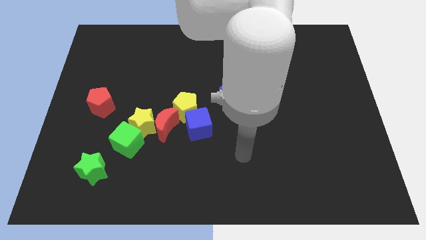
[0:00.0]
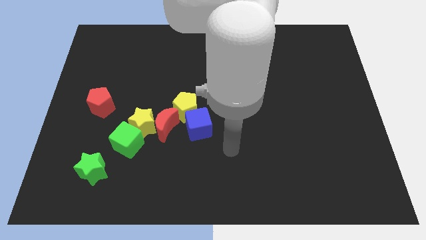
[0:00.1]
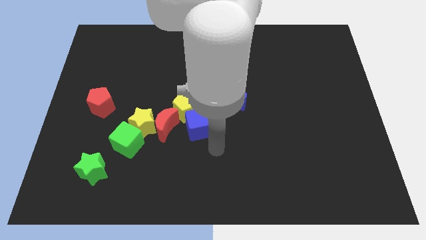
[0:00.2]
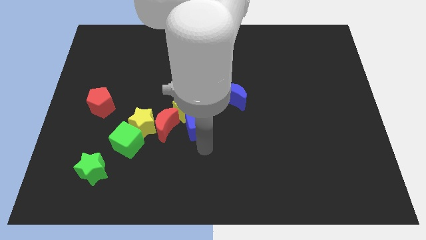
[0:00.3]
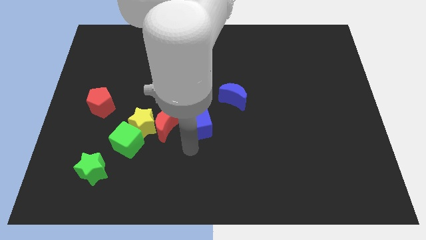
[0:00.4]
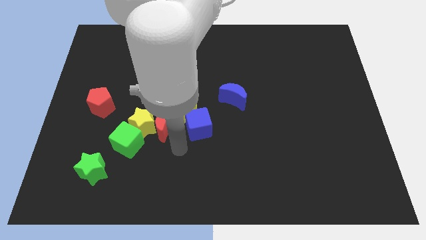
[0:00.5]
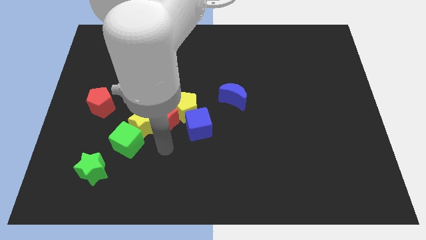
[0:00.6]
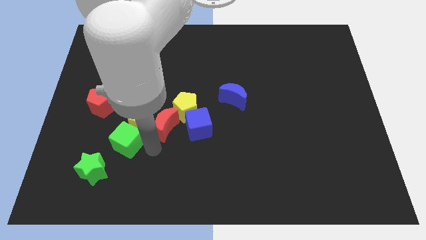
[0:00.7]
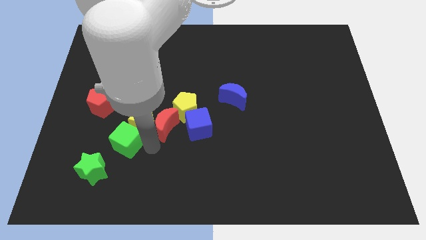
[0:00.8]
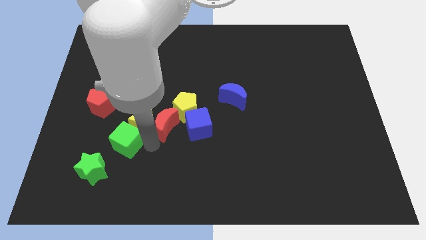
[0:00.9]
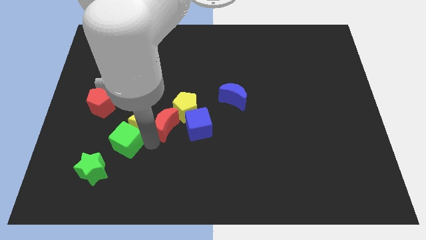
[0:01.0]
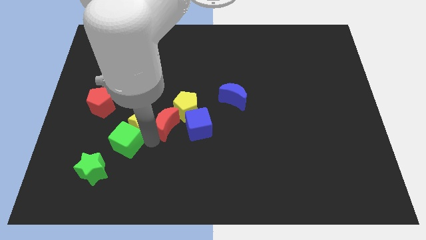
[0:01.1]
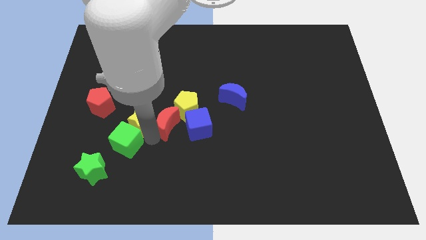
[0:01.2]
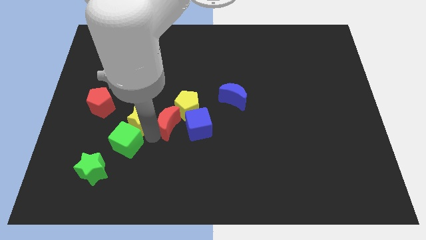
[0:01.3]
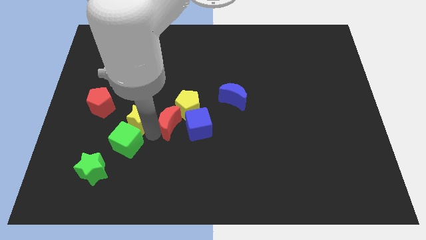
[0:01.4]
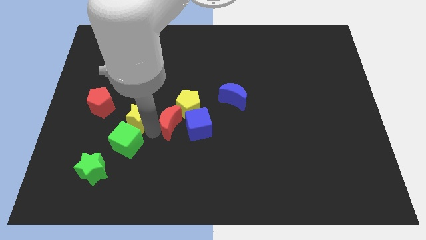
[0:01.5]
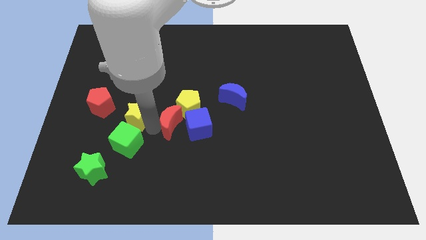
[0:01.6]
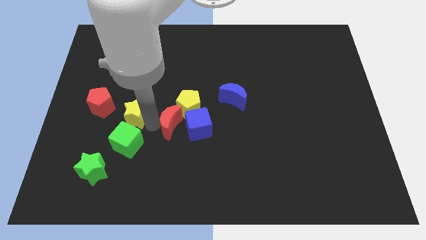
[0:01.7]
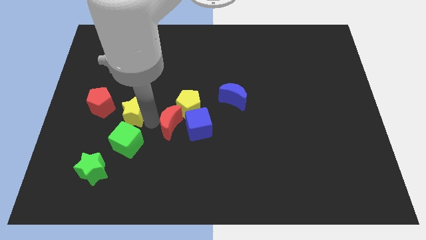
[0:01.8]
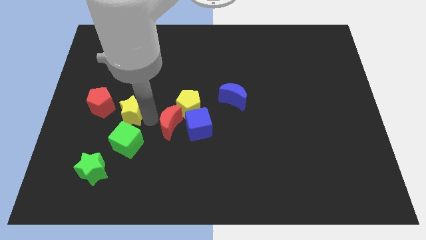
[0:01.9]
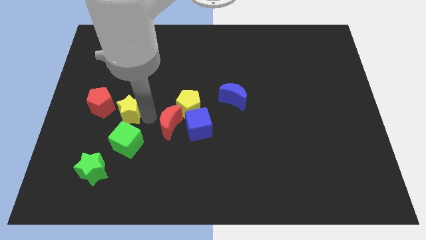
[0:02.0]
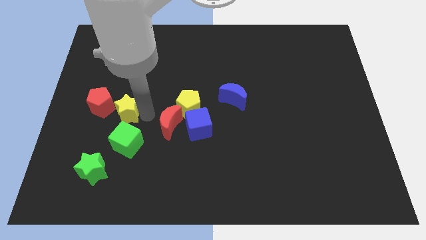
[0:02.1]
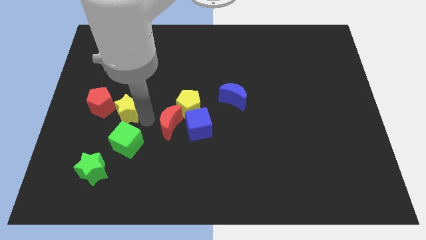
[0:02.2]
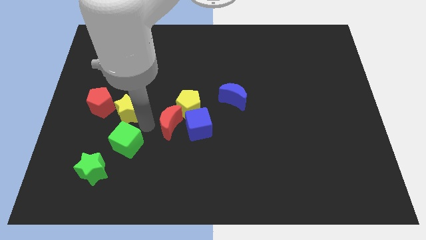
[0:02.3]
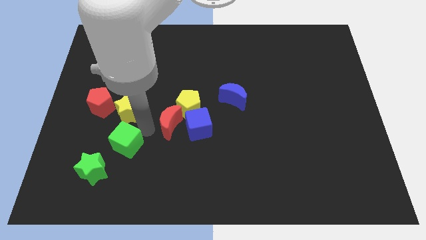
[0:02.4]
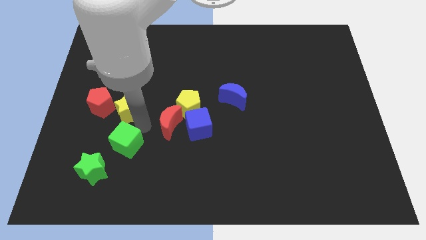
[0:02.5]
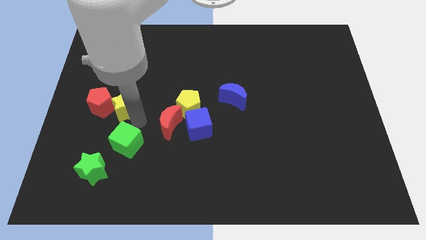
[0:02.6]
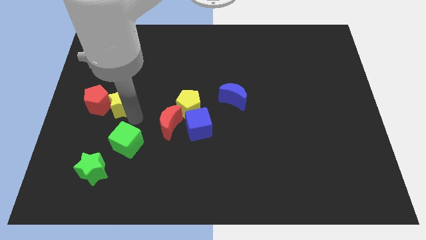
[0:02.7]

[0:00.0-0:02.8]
move the yellow star away from the red moon and green cube

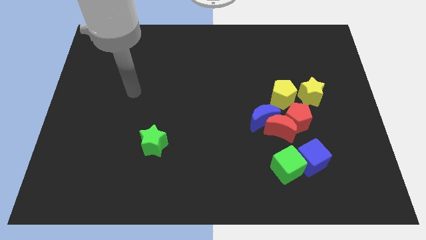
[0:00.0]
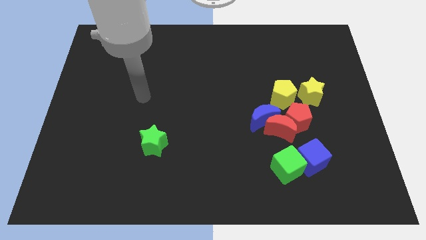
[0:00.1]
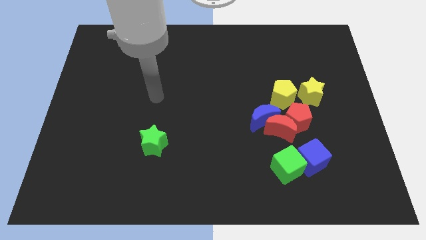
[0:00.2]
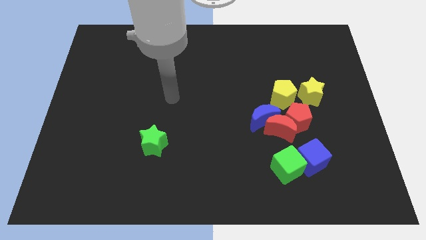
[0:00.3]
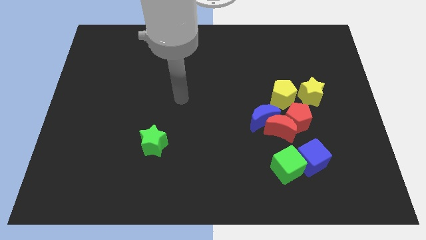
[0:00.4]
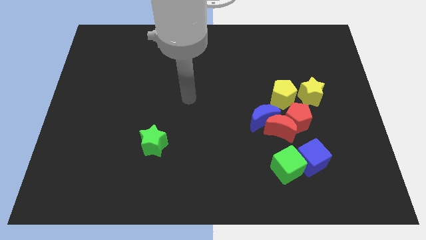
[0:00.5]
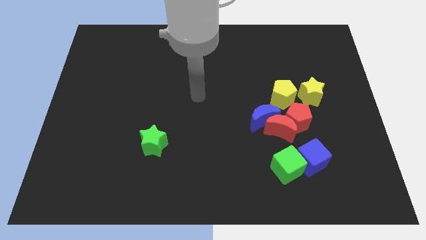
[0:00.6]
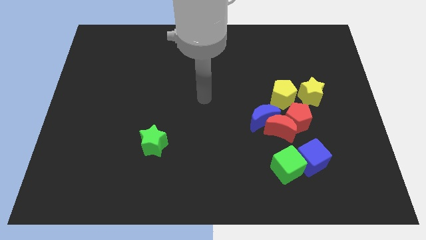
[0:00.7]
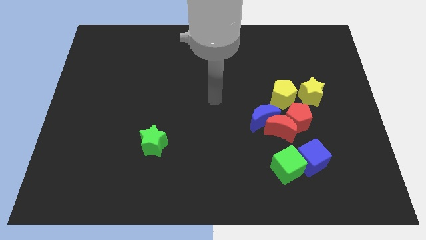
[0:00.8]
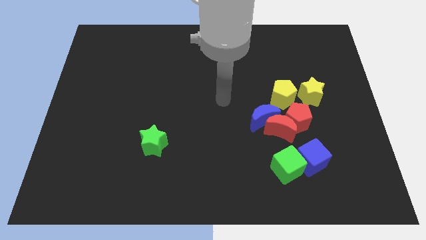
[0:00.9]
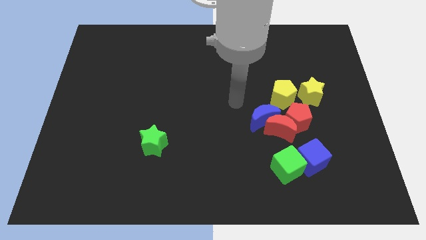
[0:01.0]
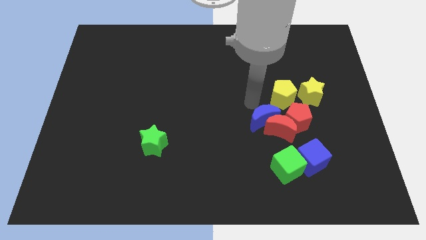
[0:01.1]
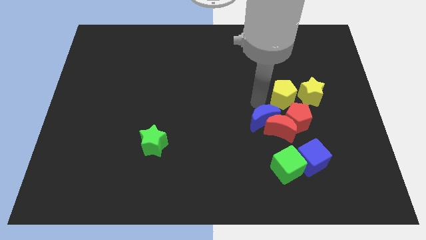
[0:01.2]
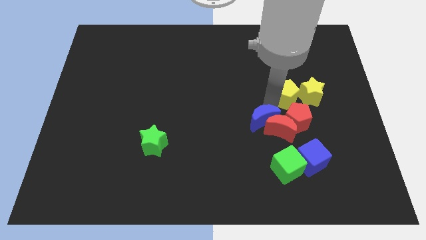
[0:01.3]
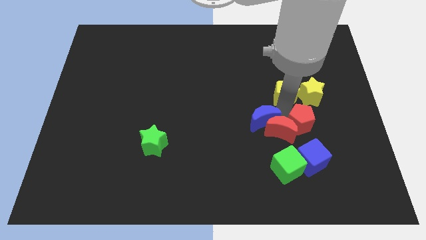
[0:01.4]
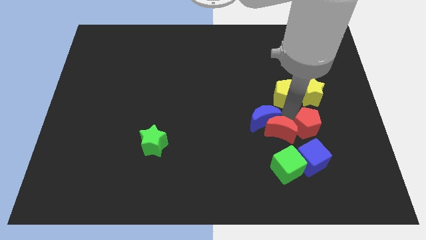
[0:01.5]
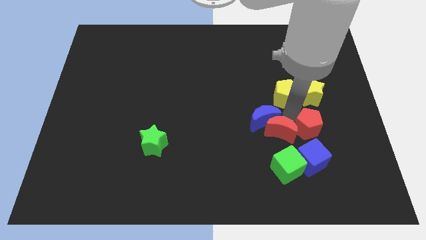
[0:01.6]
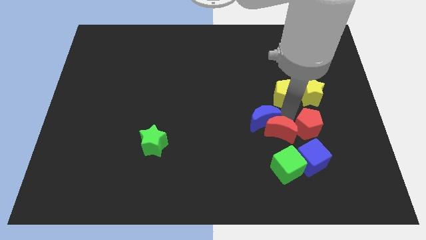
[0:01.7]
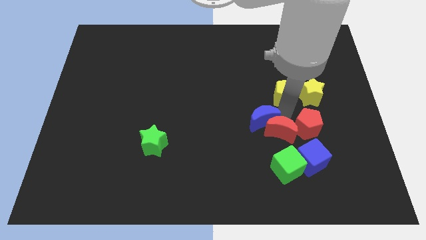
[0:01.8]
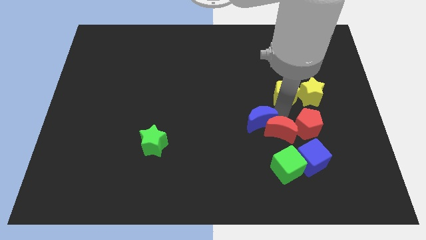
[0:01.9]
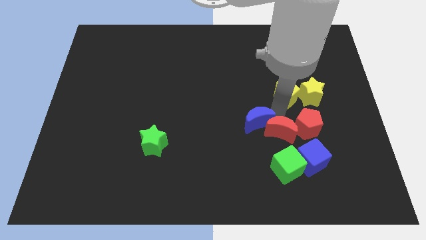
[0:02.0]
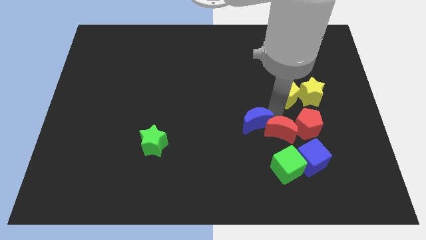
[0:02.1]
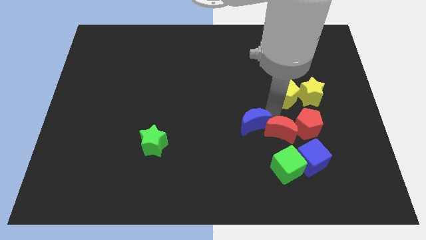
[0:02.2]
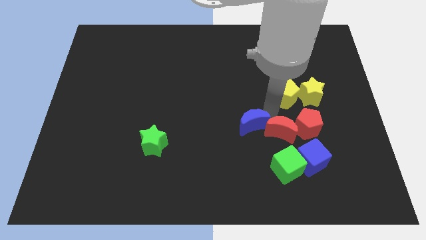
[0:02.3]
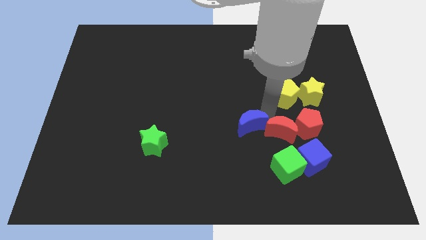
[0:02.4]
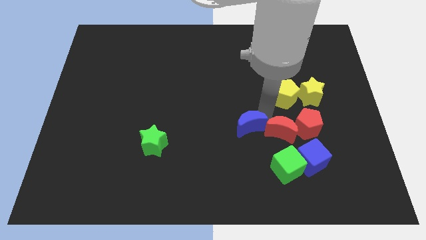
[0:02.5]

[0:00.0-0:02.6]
move the blue moon away from the red moon, red pentagon, and yellow pentagon

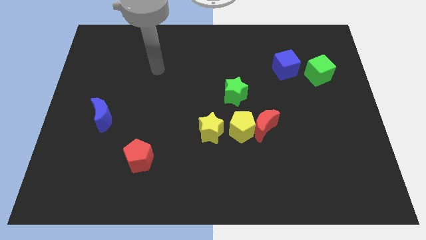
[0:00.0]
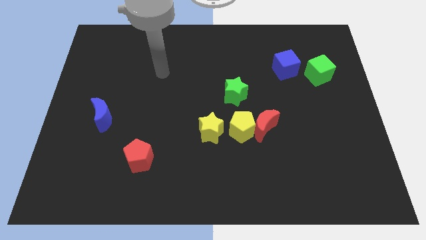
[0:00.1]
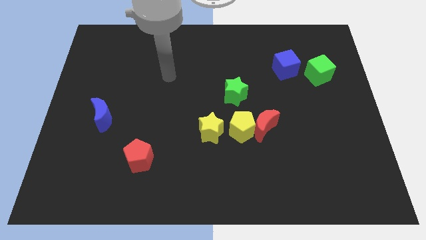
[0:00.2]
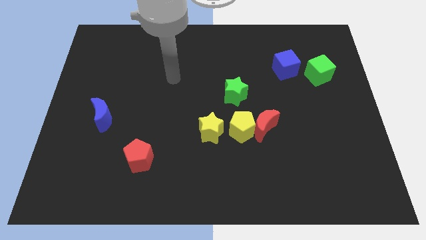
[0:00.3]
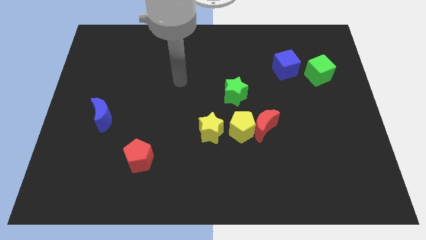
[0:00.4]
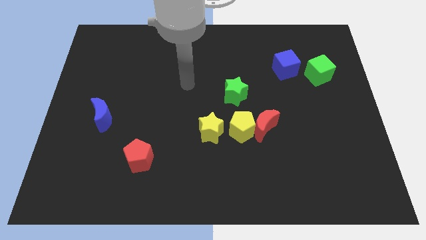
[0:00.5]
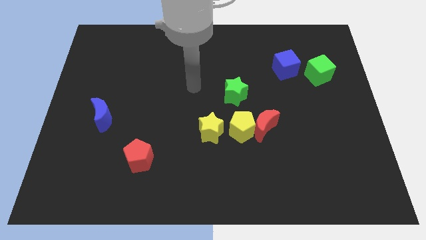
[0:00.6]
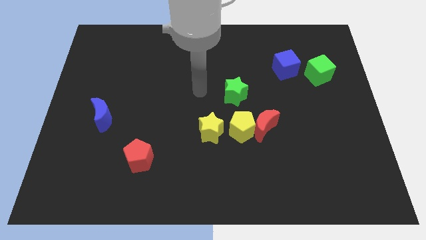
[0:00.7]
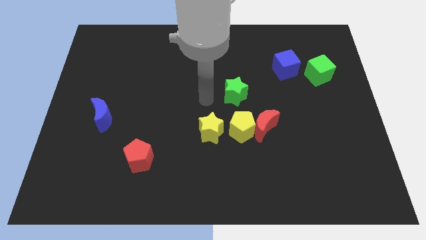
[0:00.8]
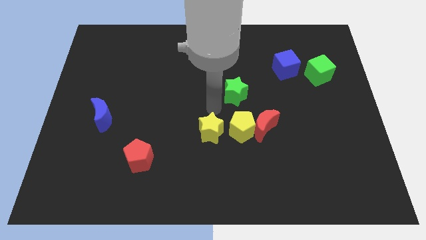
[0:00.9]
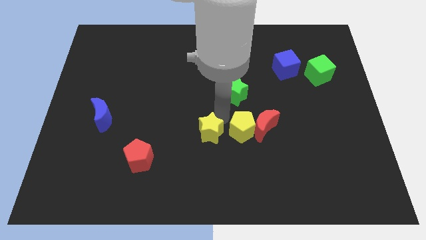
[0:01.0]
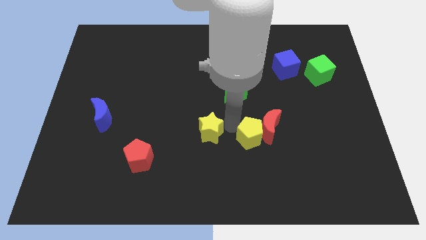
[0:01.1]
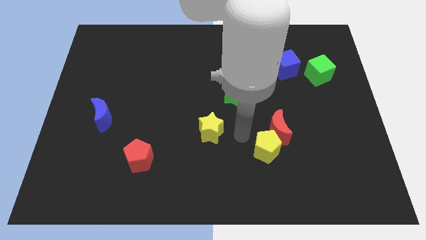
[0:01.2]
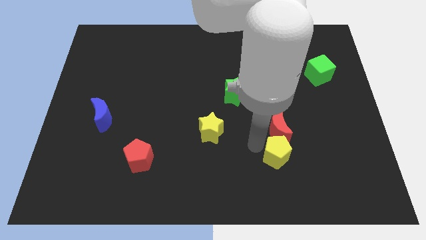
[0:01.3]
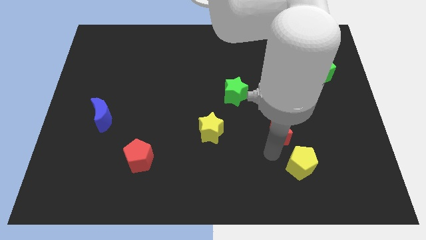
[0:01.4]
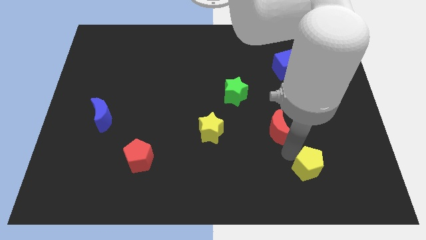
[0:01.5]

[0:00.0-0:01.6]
move the red moon away from the yellow pentagon

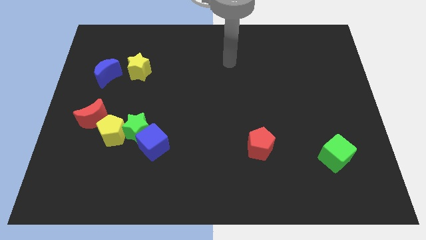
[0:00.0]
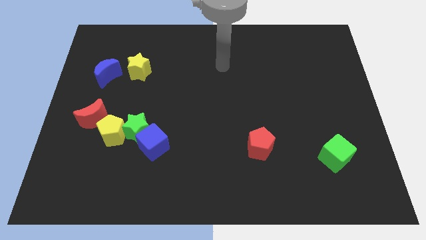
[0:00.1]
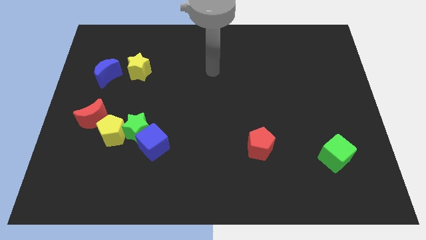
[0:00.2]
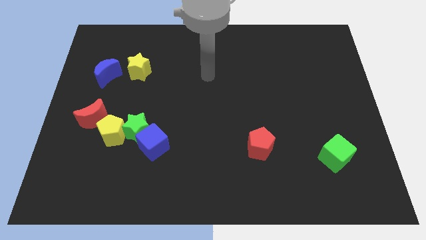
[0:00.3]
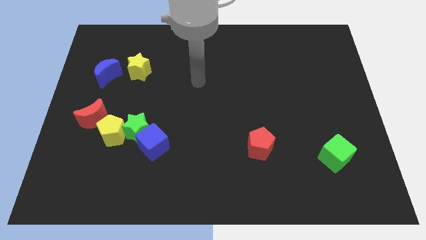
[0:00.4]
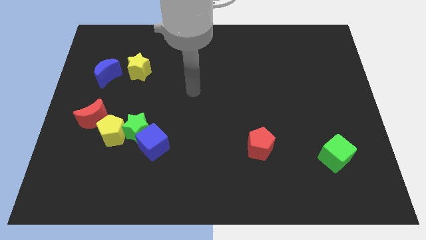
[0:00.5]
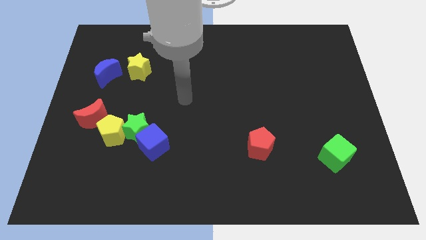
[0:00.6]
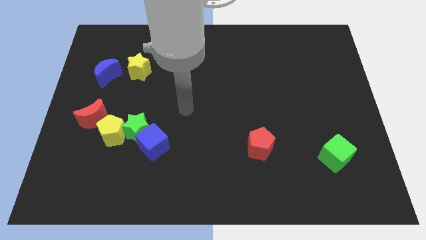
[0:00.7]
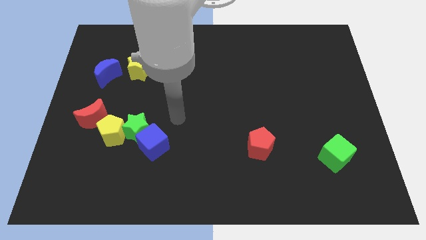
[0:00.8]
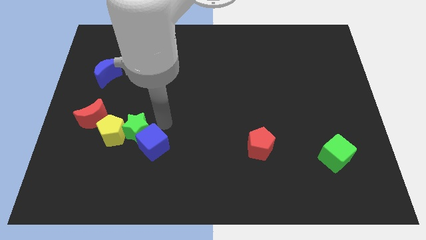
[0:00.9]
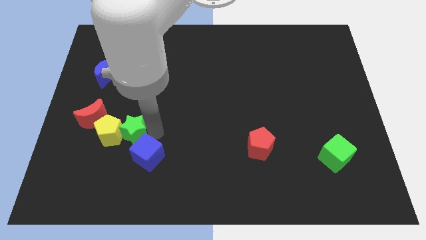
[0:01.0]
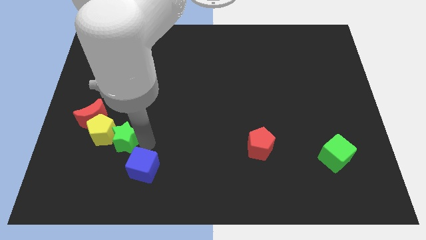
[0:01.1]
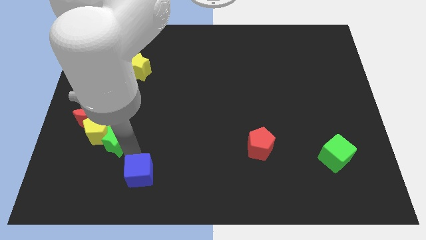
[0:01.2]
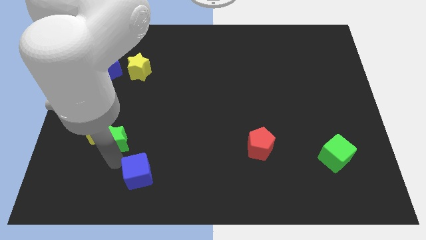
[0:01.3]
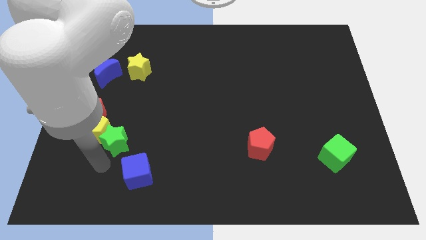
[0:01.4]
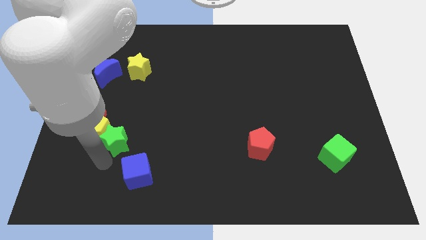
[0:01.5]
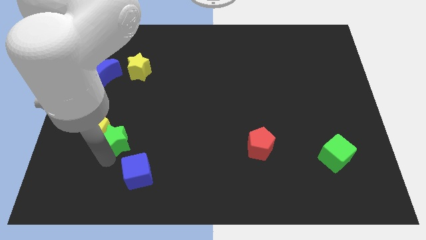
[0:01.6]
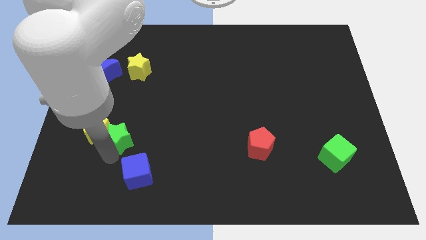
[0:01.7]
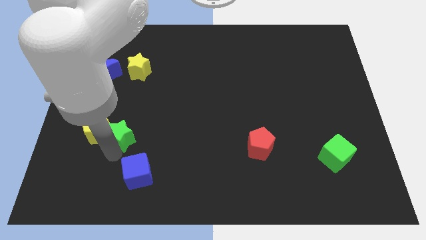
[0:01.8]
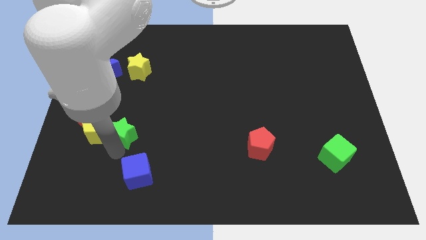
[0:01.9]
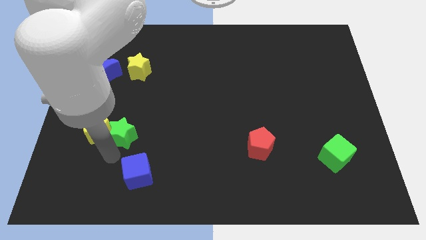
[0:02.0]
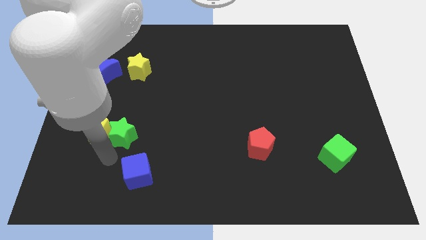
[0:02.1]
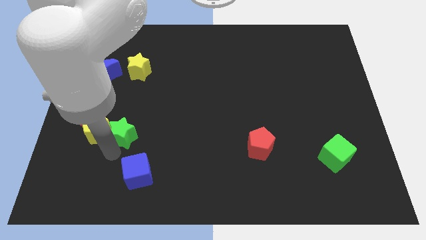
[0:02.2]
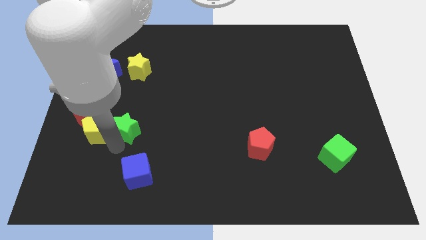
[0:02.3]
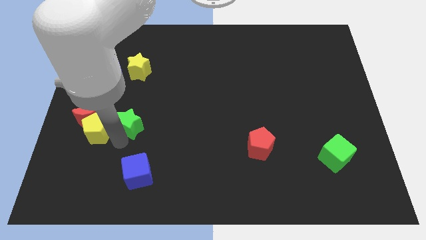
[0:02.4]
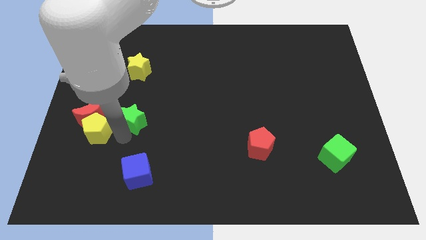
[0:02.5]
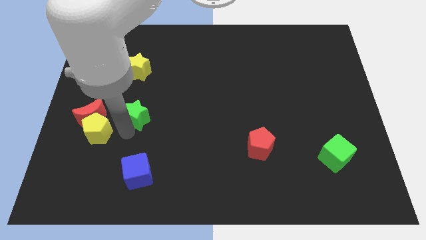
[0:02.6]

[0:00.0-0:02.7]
separate the green star from the yellow pentagon and blue cube
